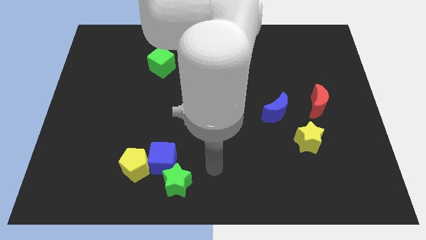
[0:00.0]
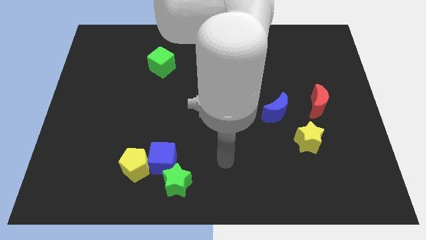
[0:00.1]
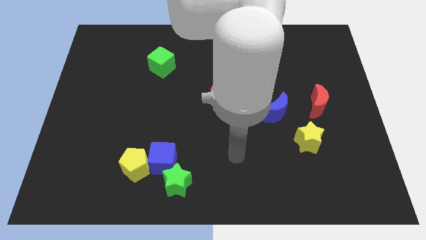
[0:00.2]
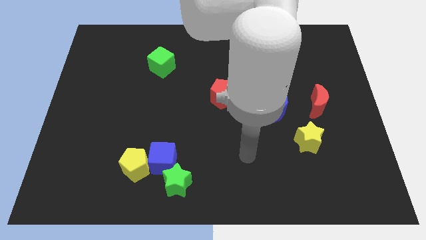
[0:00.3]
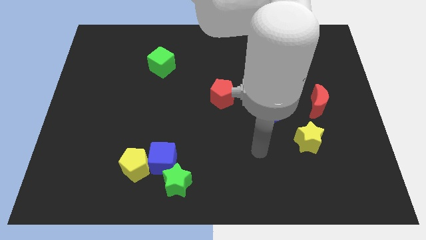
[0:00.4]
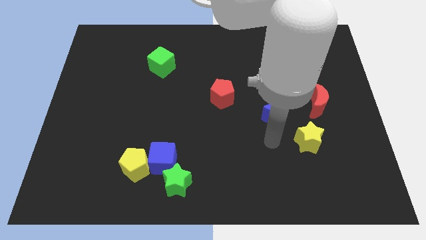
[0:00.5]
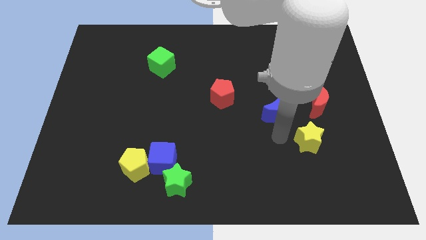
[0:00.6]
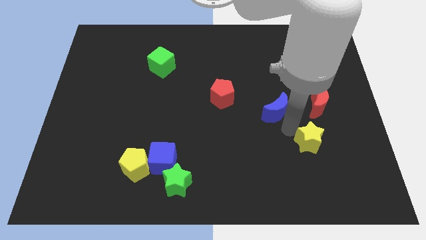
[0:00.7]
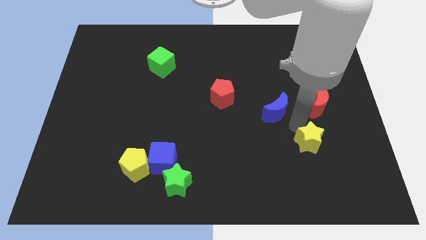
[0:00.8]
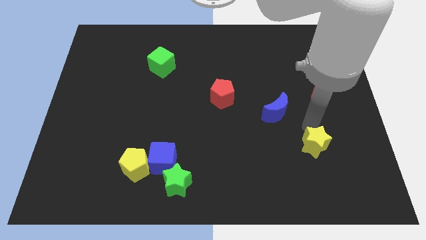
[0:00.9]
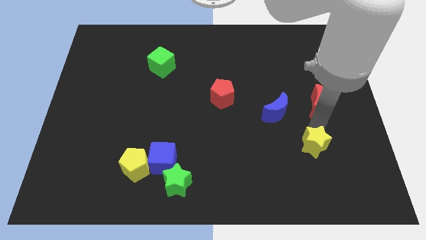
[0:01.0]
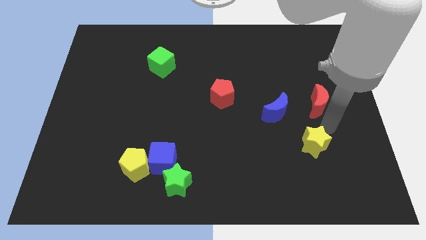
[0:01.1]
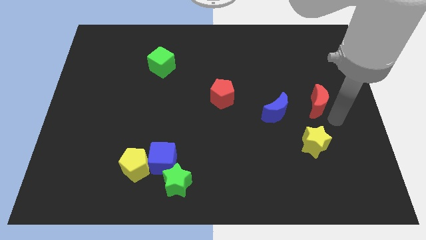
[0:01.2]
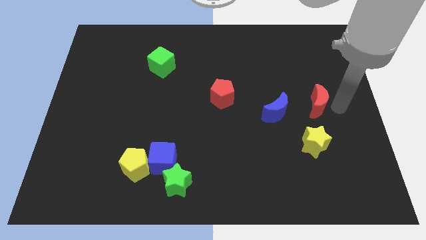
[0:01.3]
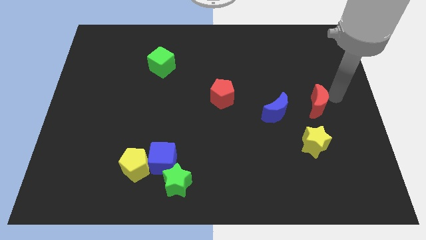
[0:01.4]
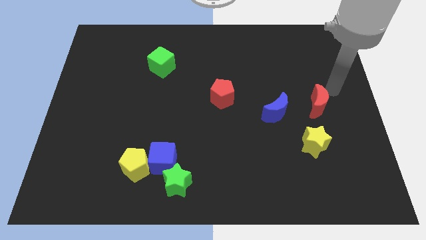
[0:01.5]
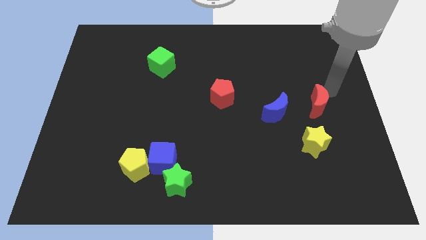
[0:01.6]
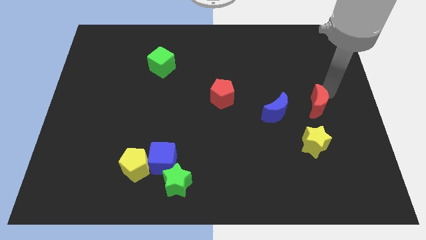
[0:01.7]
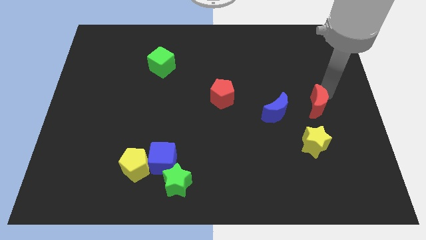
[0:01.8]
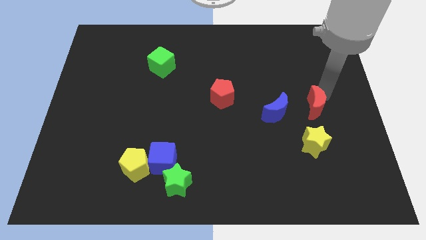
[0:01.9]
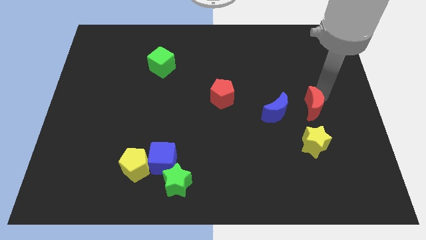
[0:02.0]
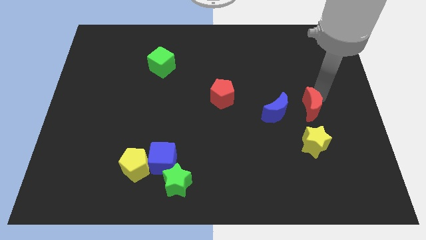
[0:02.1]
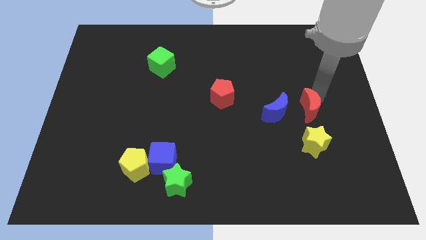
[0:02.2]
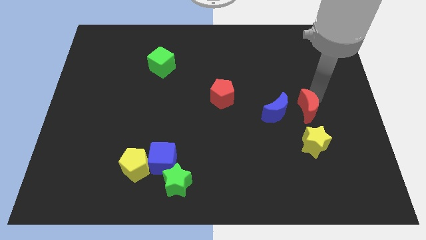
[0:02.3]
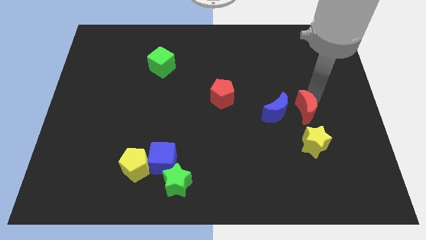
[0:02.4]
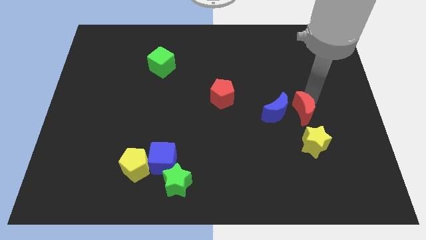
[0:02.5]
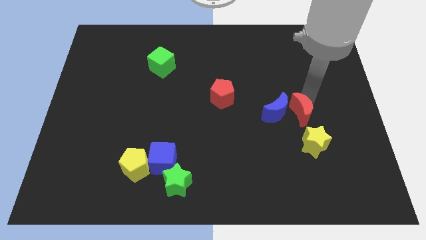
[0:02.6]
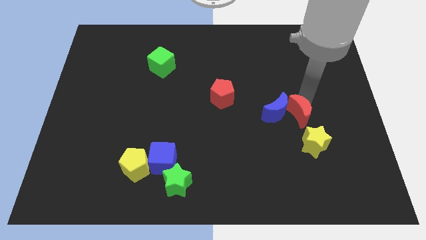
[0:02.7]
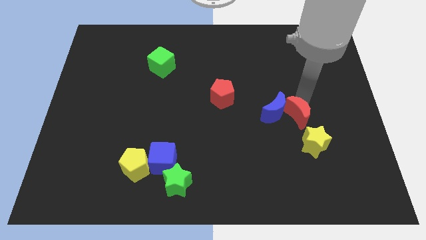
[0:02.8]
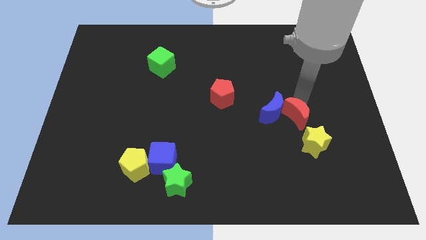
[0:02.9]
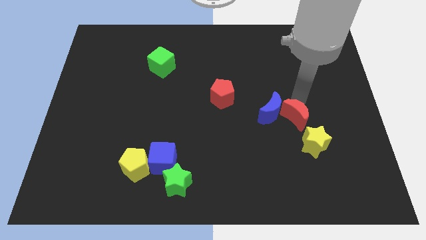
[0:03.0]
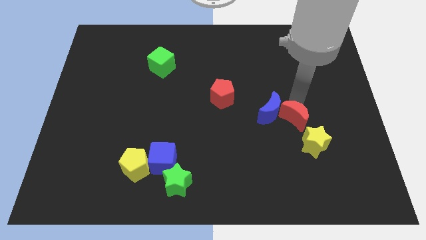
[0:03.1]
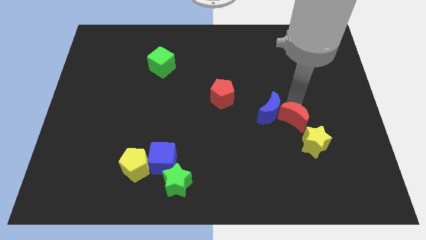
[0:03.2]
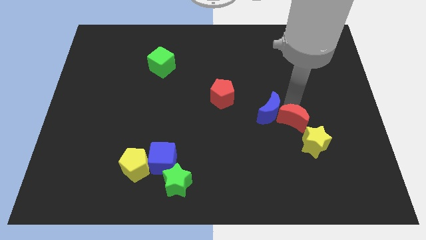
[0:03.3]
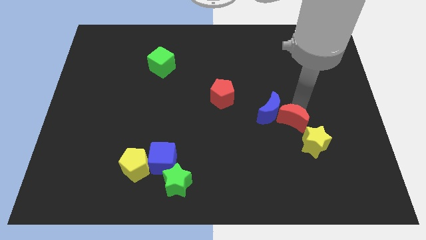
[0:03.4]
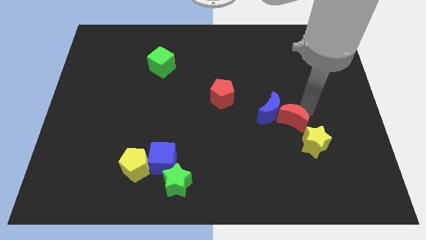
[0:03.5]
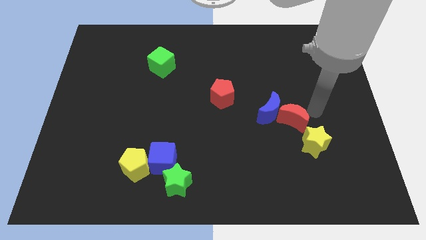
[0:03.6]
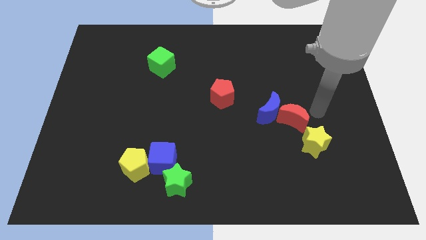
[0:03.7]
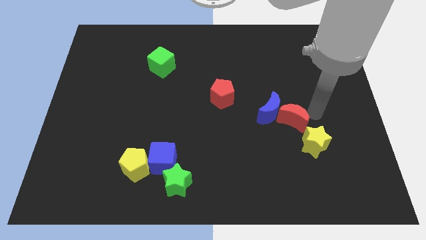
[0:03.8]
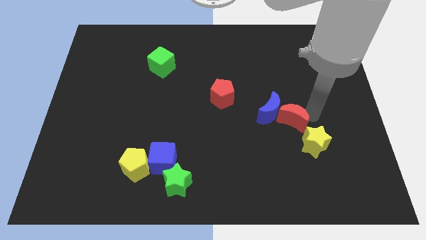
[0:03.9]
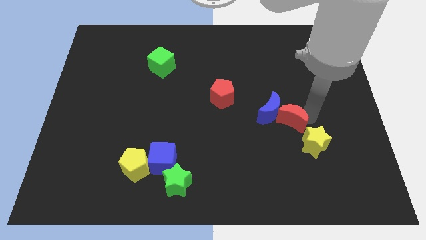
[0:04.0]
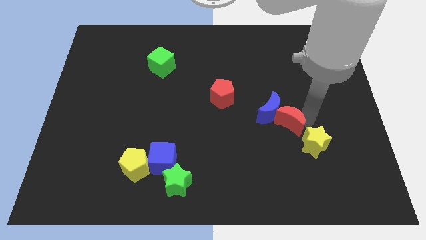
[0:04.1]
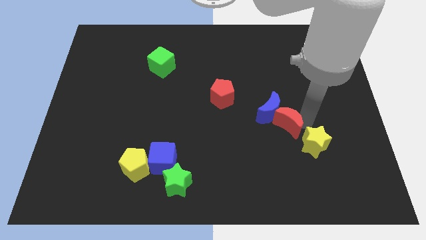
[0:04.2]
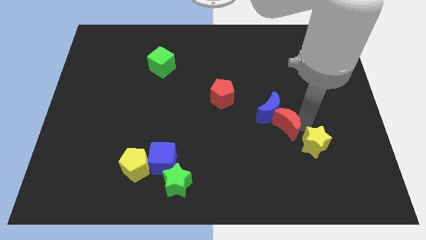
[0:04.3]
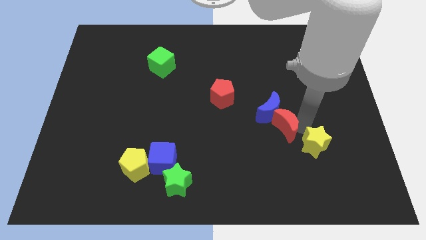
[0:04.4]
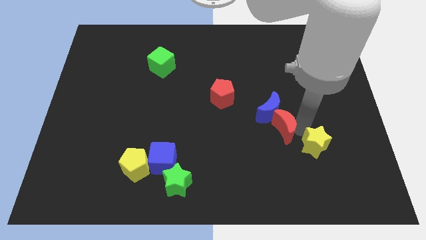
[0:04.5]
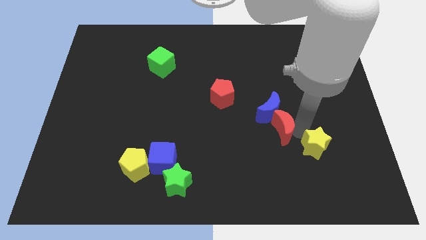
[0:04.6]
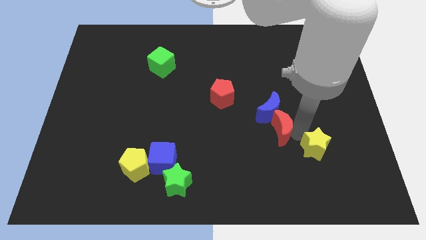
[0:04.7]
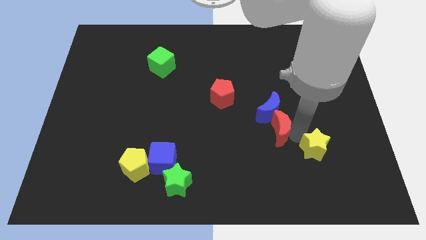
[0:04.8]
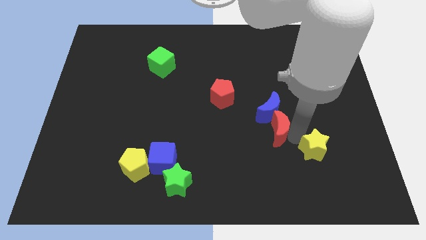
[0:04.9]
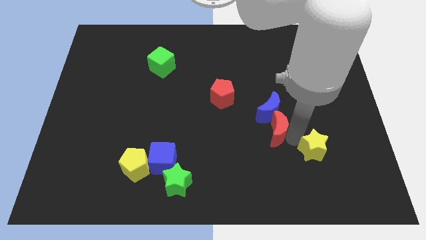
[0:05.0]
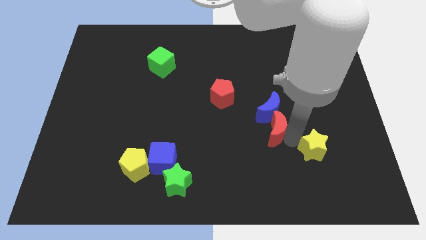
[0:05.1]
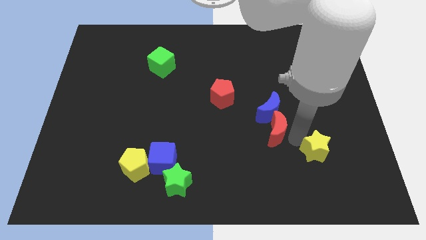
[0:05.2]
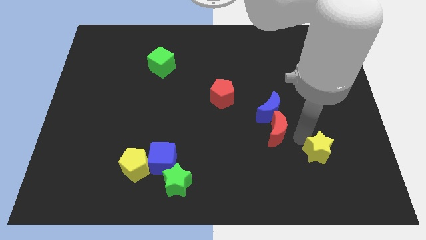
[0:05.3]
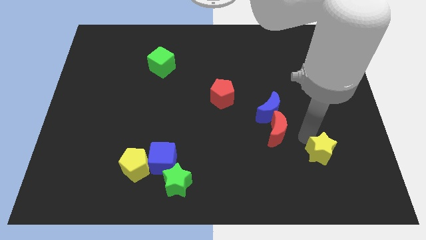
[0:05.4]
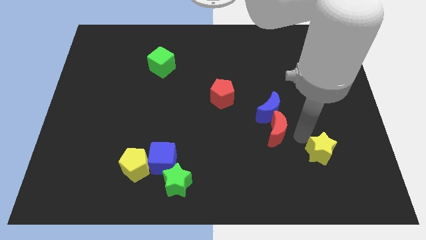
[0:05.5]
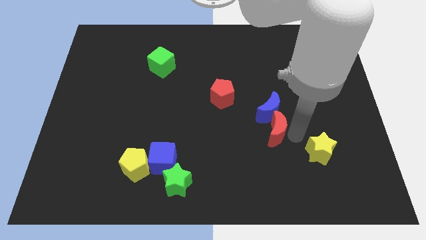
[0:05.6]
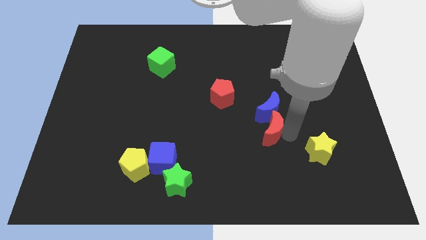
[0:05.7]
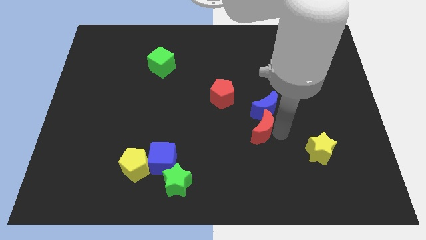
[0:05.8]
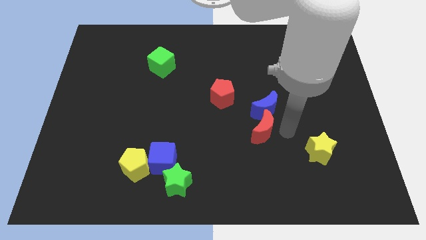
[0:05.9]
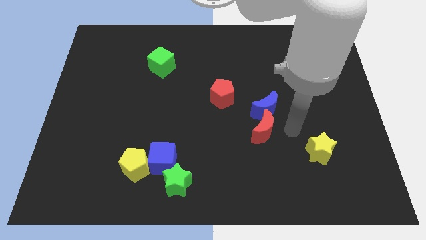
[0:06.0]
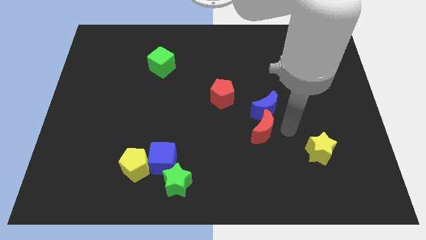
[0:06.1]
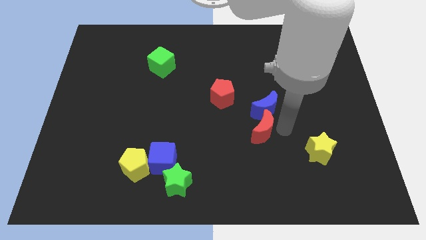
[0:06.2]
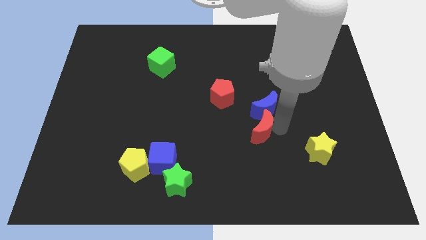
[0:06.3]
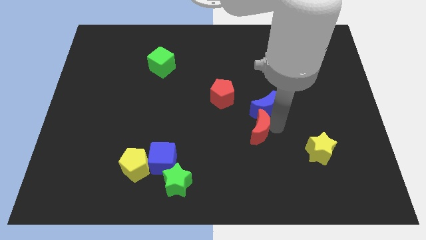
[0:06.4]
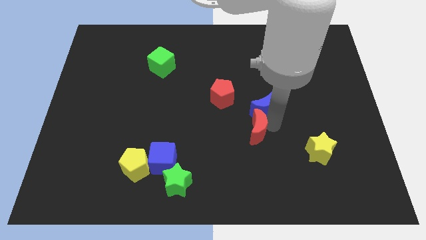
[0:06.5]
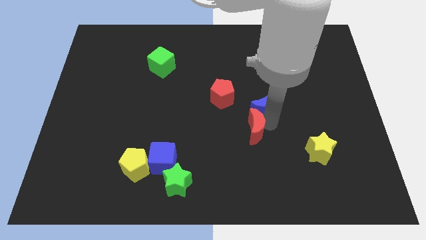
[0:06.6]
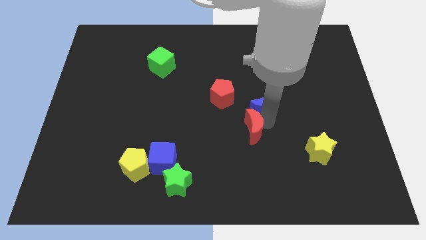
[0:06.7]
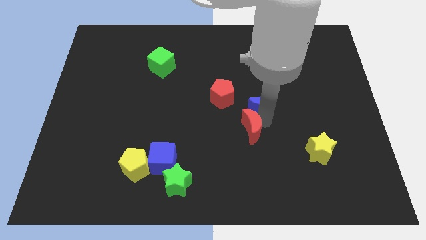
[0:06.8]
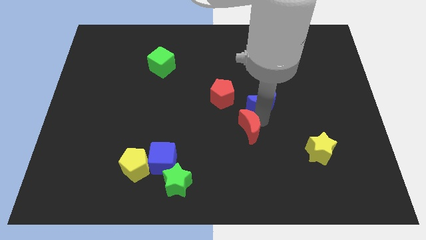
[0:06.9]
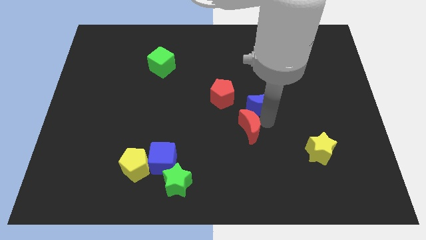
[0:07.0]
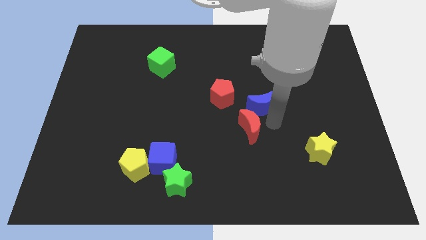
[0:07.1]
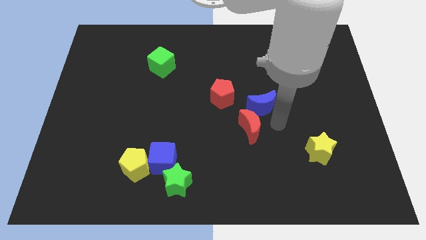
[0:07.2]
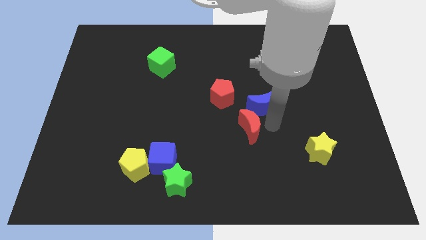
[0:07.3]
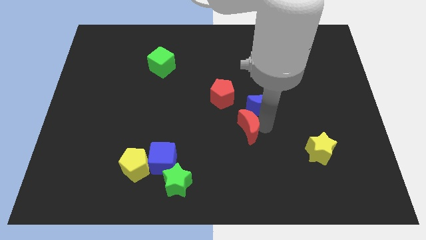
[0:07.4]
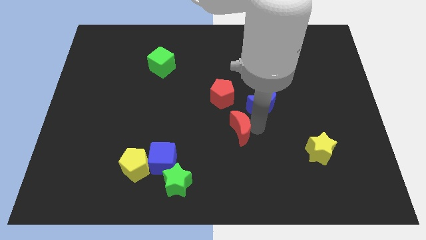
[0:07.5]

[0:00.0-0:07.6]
put the red moon below the red pentagon

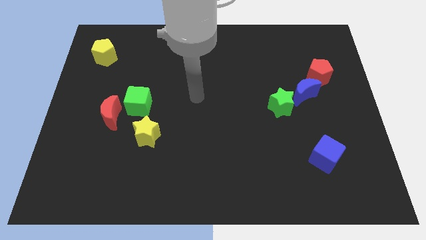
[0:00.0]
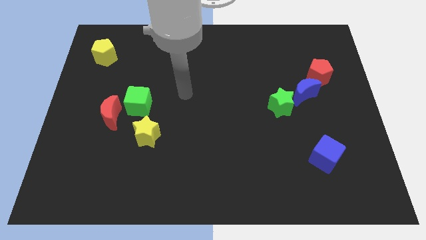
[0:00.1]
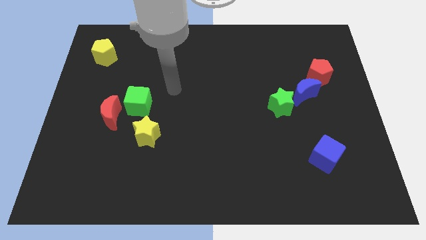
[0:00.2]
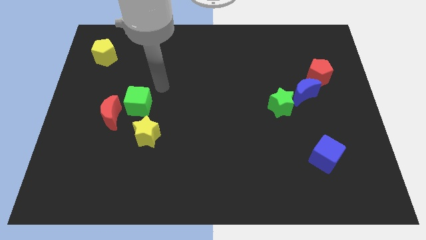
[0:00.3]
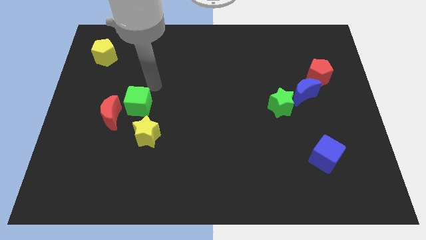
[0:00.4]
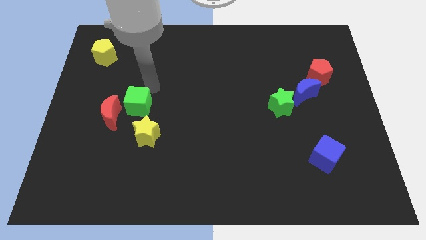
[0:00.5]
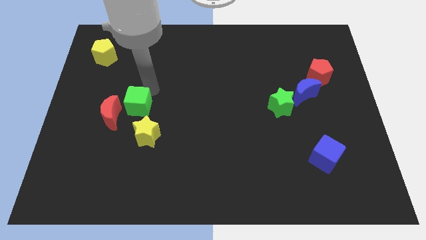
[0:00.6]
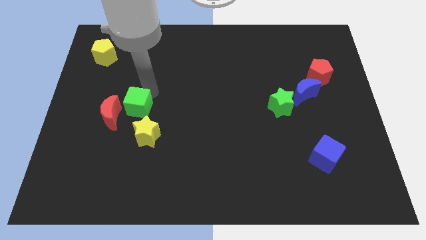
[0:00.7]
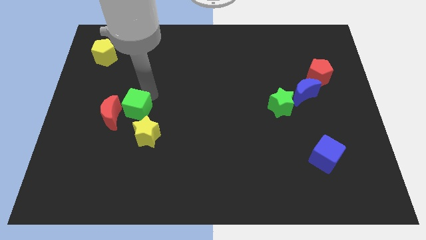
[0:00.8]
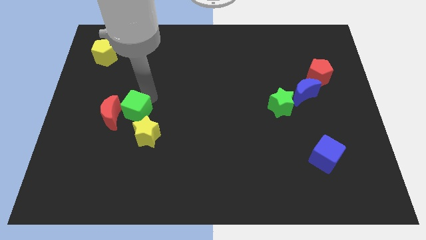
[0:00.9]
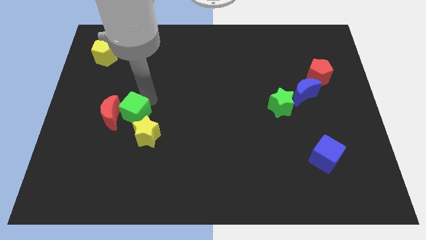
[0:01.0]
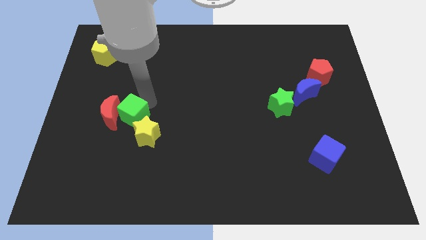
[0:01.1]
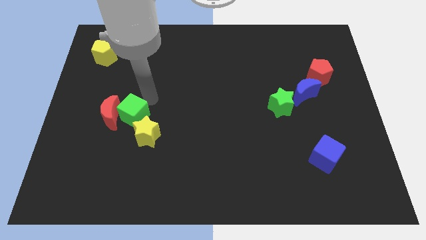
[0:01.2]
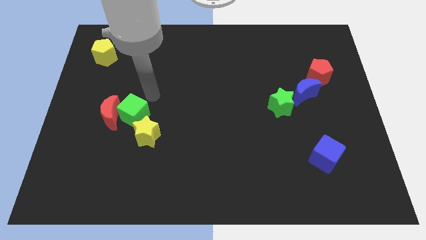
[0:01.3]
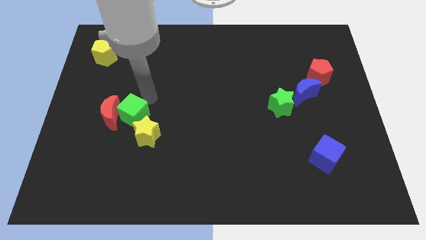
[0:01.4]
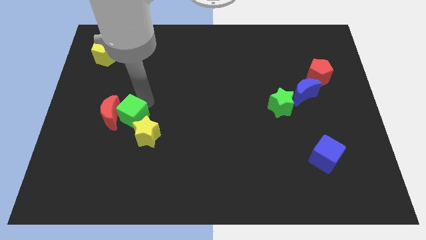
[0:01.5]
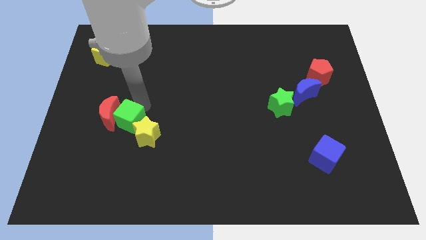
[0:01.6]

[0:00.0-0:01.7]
put the green cube left of the yellow star
